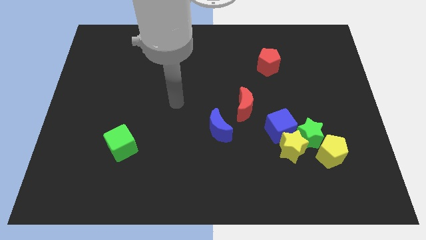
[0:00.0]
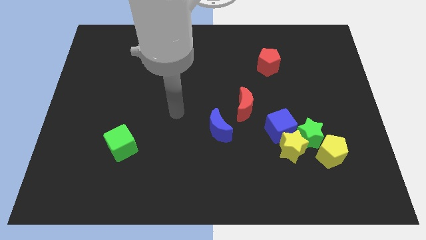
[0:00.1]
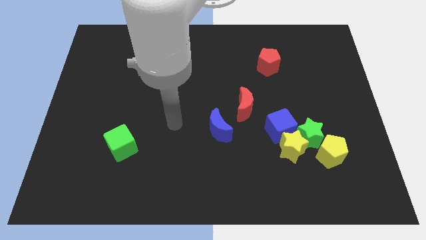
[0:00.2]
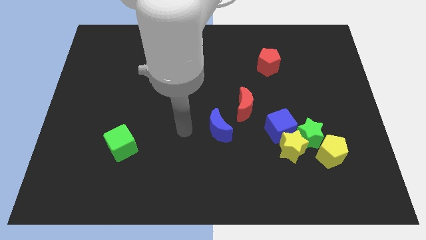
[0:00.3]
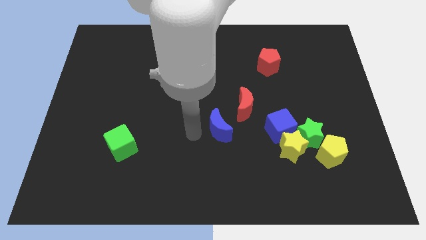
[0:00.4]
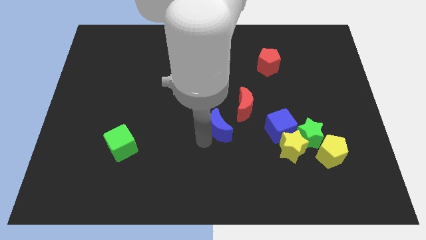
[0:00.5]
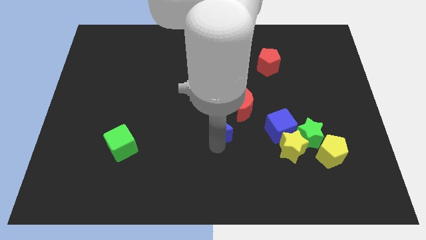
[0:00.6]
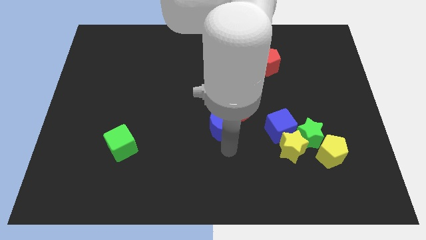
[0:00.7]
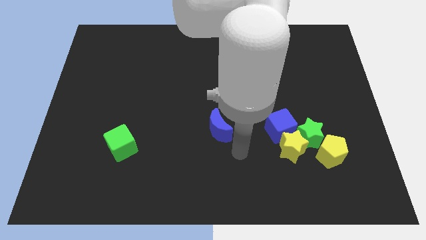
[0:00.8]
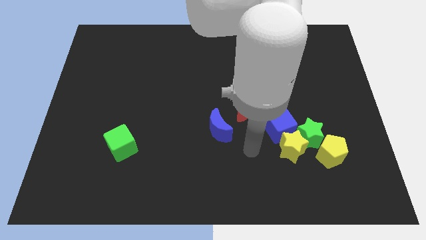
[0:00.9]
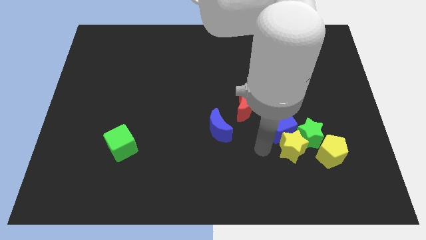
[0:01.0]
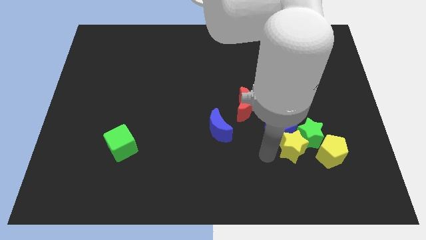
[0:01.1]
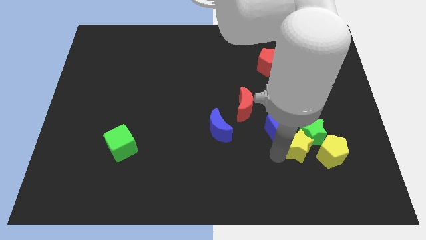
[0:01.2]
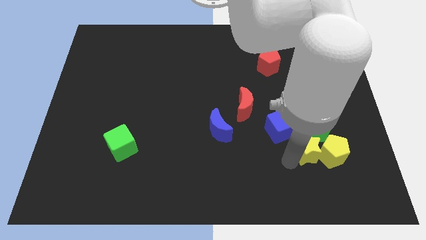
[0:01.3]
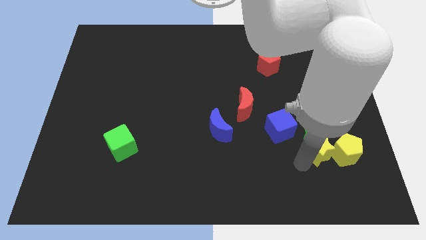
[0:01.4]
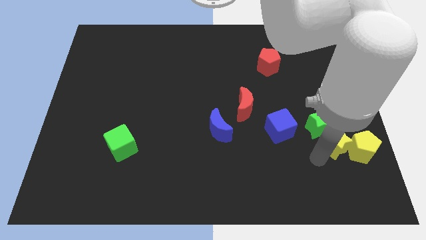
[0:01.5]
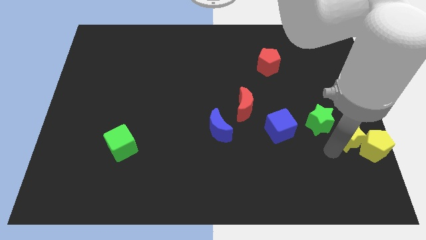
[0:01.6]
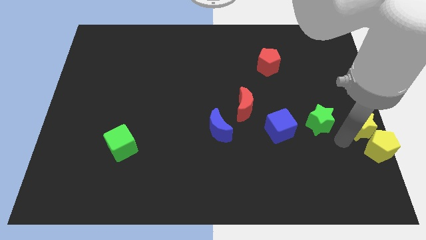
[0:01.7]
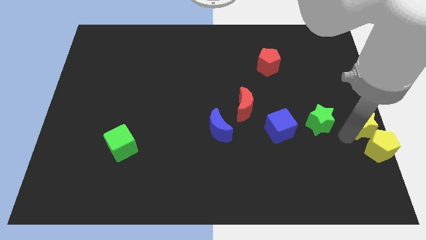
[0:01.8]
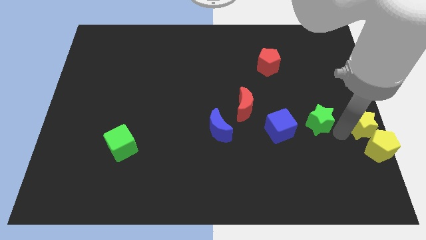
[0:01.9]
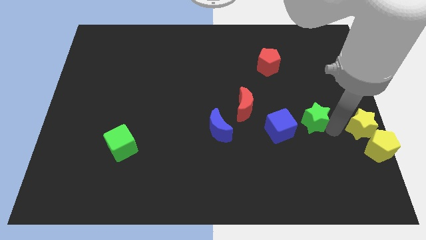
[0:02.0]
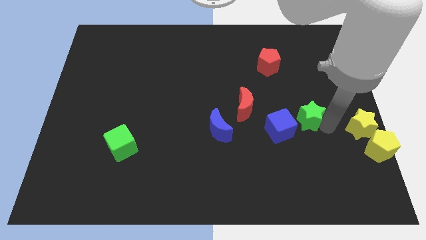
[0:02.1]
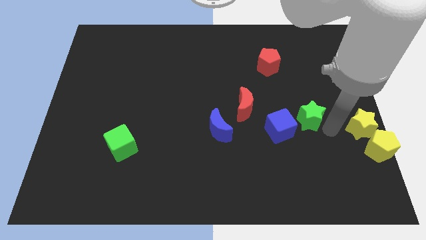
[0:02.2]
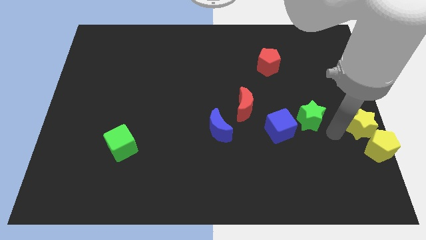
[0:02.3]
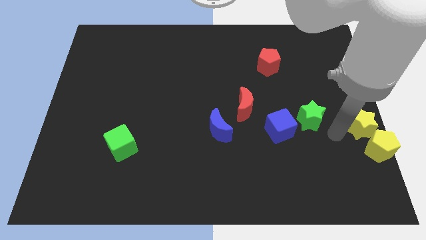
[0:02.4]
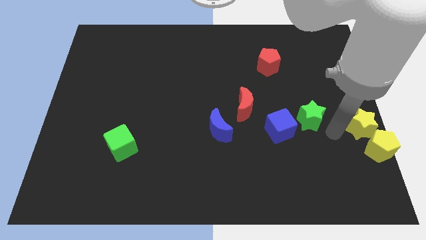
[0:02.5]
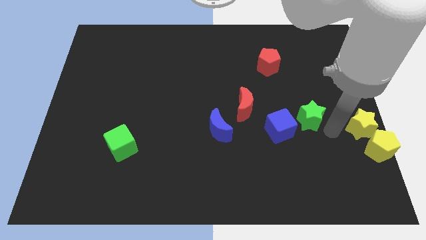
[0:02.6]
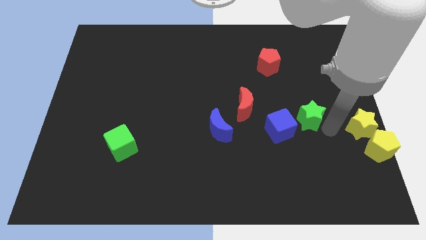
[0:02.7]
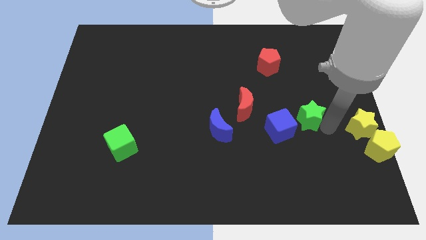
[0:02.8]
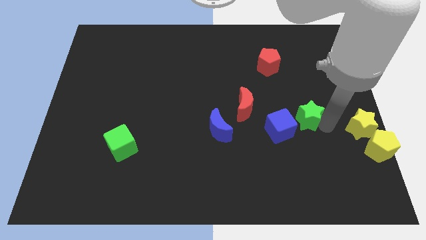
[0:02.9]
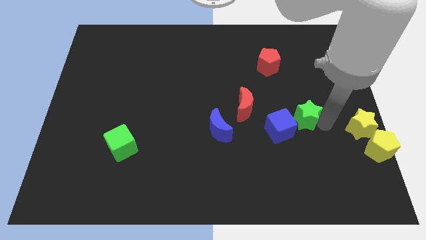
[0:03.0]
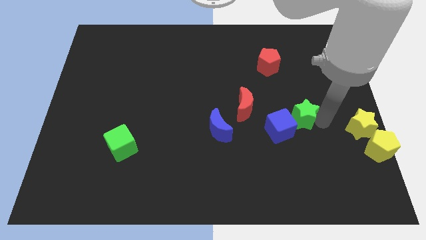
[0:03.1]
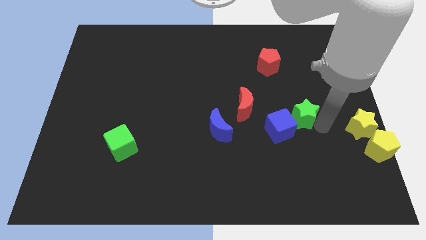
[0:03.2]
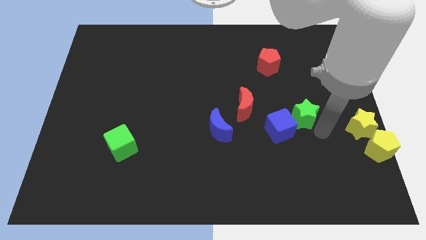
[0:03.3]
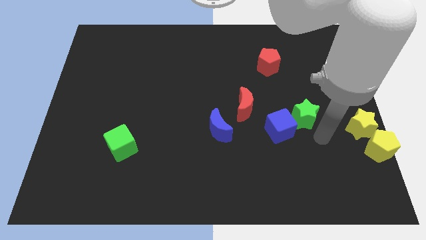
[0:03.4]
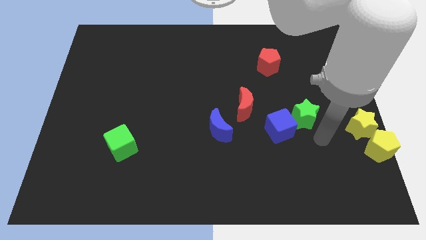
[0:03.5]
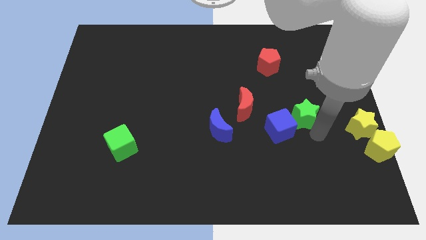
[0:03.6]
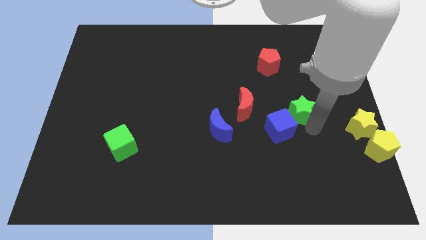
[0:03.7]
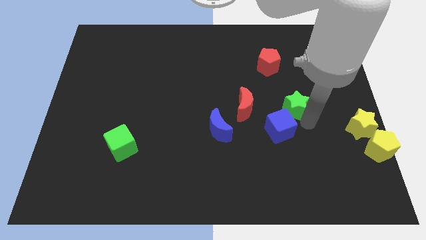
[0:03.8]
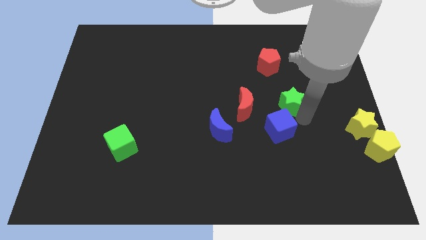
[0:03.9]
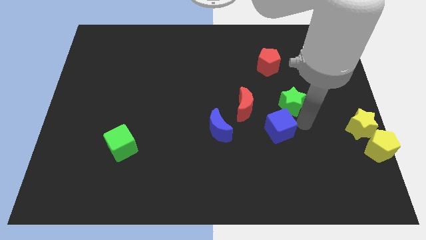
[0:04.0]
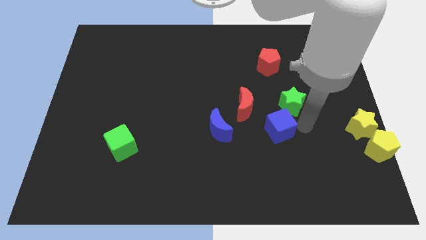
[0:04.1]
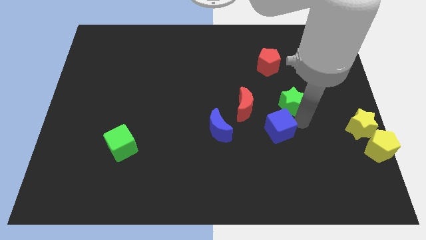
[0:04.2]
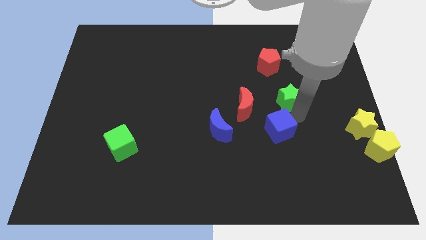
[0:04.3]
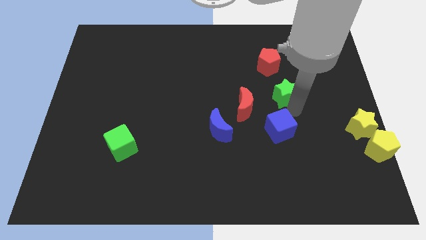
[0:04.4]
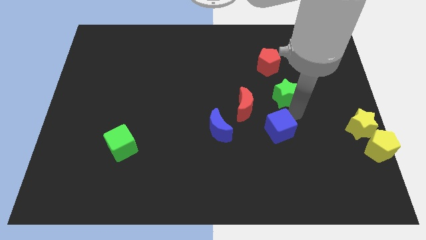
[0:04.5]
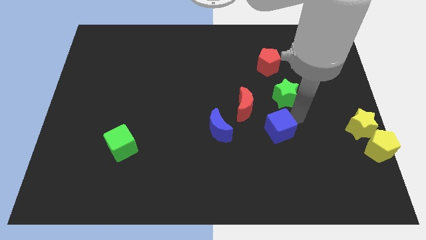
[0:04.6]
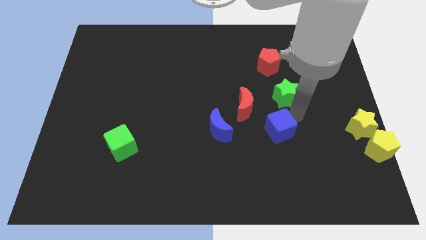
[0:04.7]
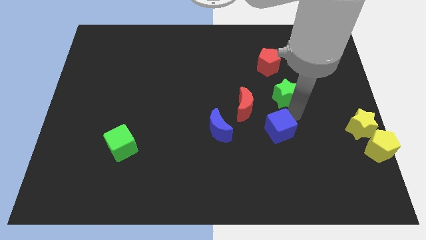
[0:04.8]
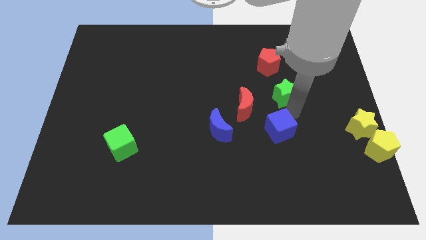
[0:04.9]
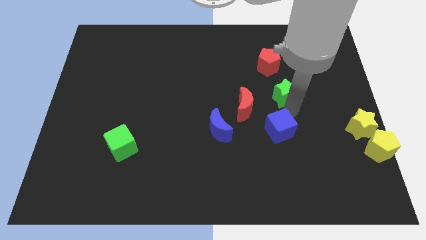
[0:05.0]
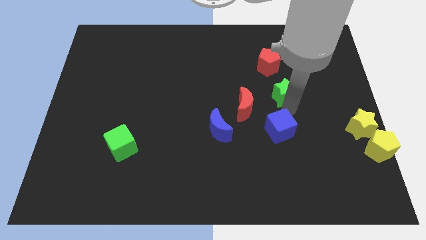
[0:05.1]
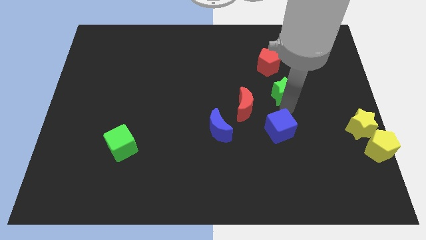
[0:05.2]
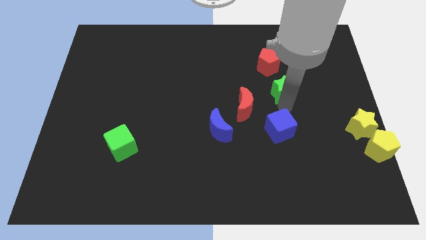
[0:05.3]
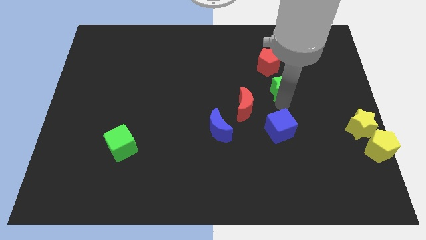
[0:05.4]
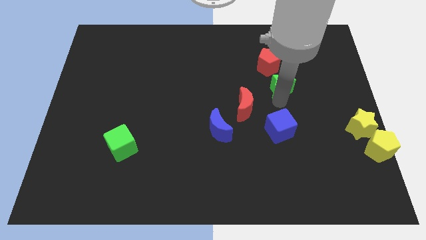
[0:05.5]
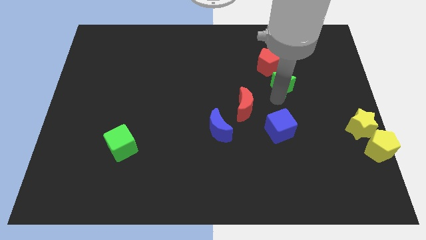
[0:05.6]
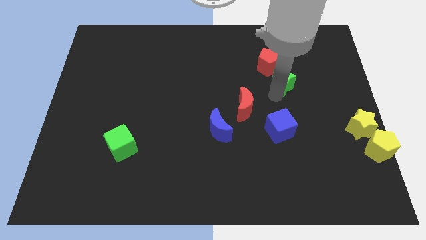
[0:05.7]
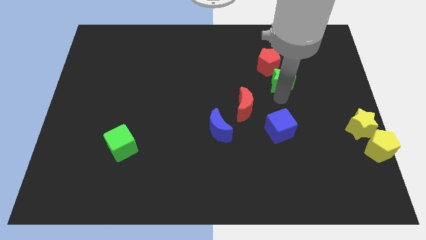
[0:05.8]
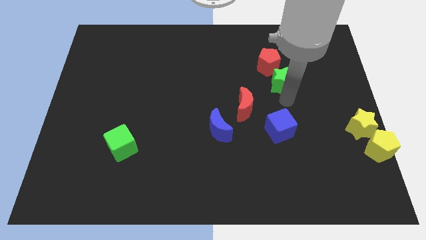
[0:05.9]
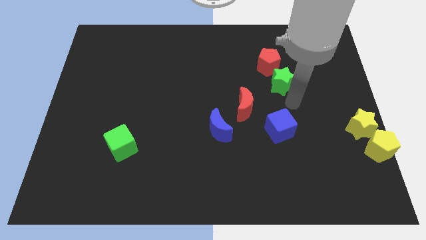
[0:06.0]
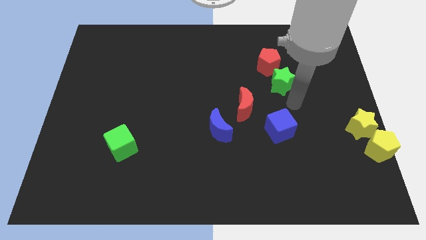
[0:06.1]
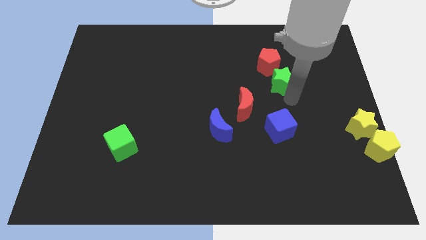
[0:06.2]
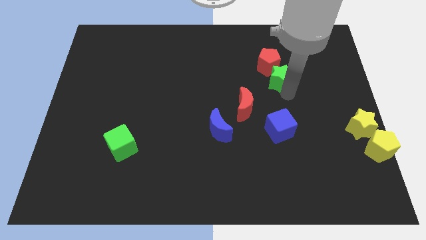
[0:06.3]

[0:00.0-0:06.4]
move the green star to the red pentagon

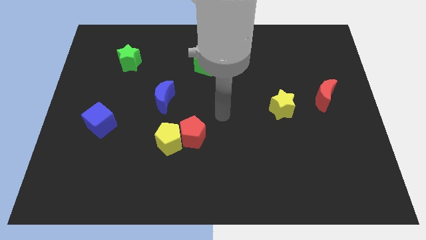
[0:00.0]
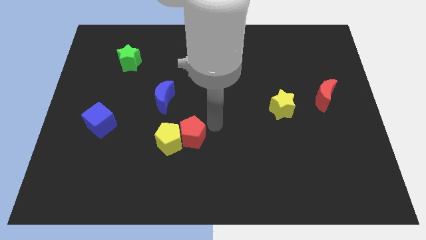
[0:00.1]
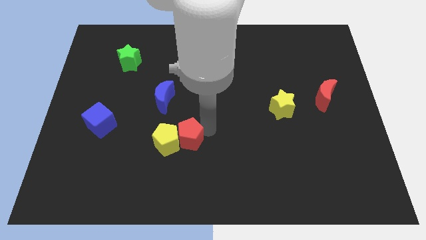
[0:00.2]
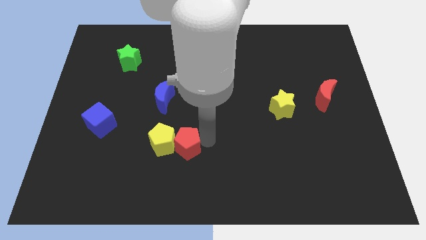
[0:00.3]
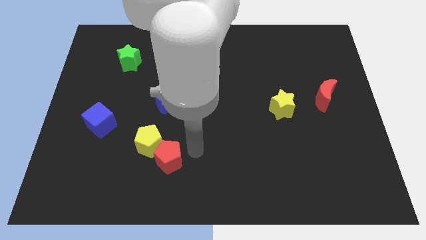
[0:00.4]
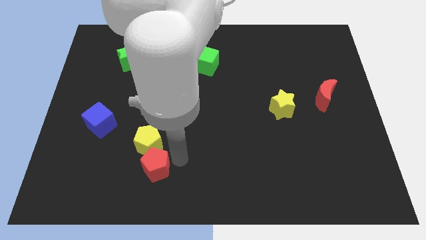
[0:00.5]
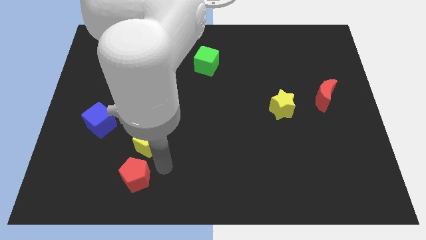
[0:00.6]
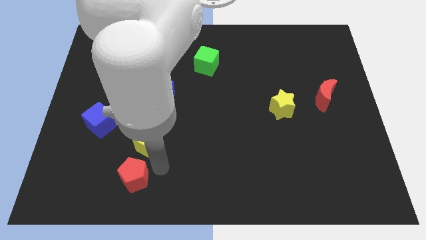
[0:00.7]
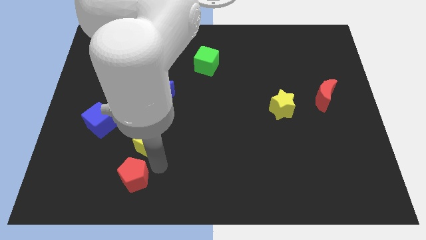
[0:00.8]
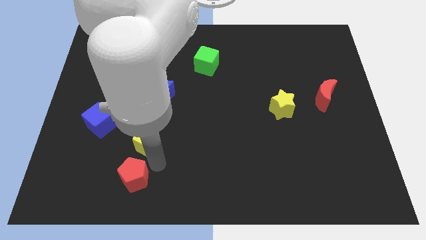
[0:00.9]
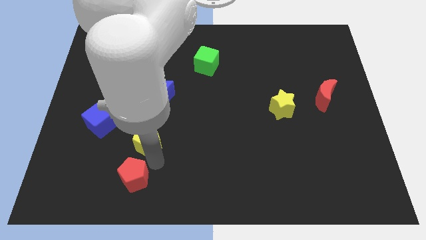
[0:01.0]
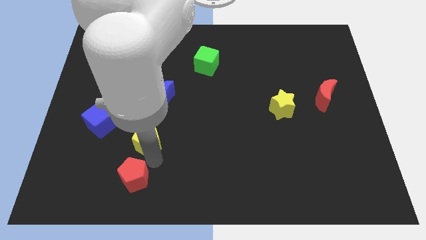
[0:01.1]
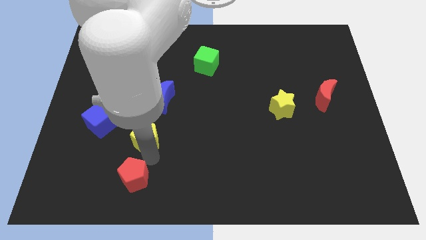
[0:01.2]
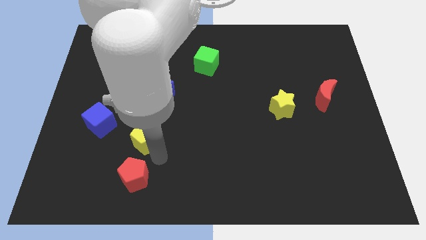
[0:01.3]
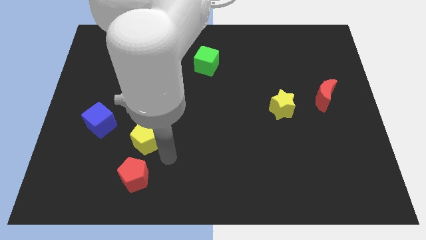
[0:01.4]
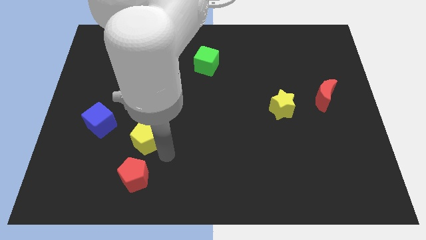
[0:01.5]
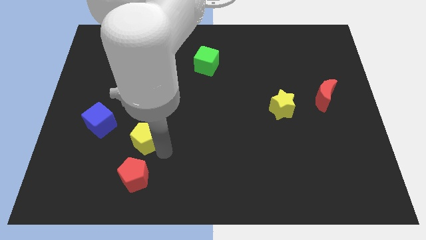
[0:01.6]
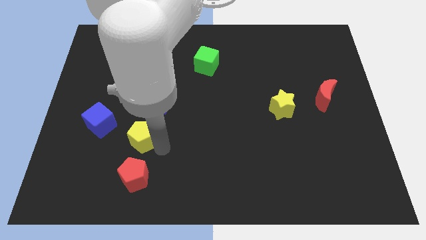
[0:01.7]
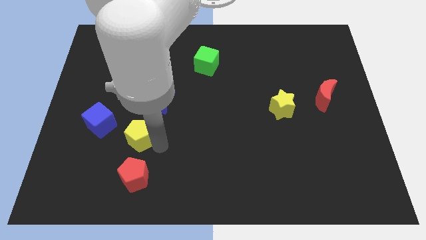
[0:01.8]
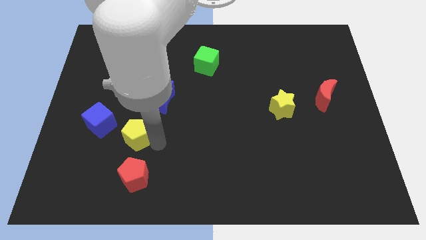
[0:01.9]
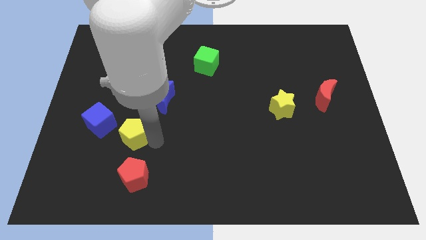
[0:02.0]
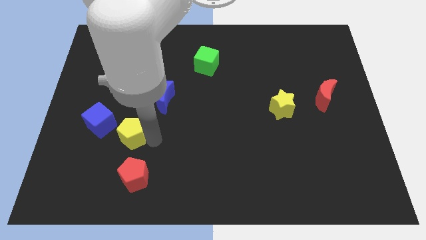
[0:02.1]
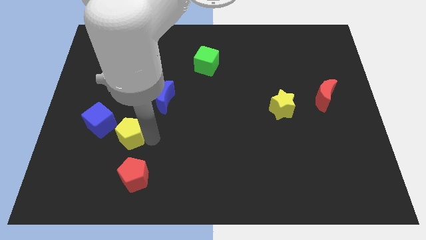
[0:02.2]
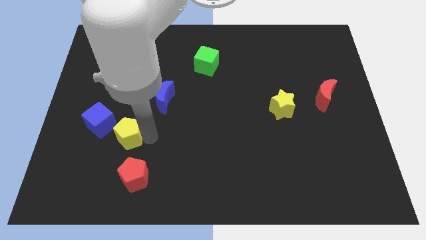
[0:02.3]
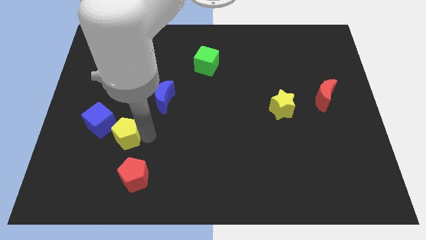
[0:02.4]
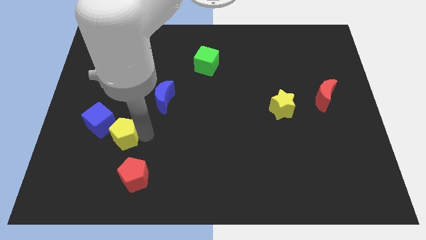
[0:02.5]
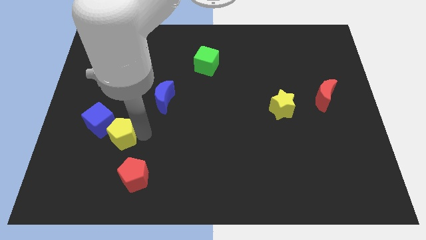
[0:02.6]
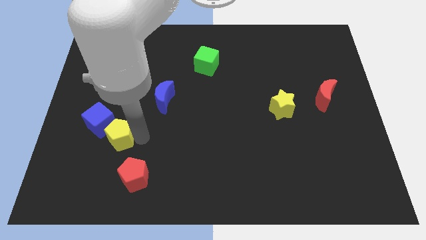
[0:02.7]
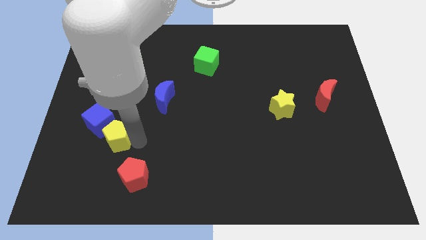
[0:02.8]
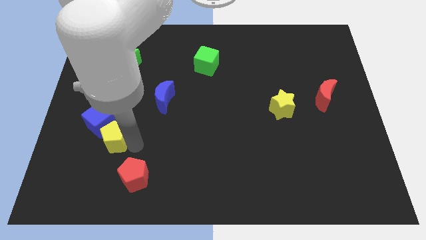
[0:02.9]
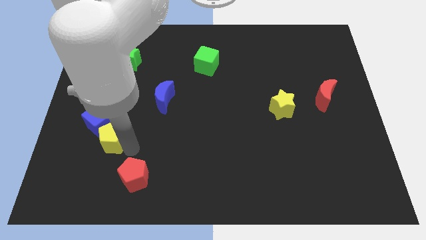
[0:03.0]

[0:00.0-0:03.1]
put the yellow pentagon to the blue cube
